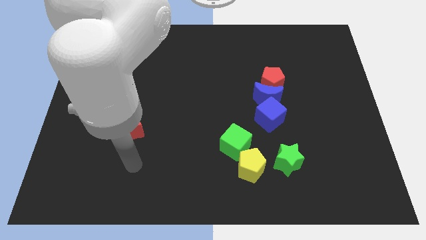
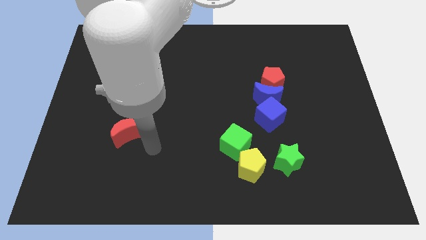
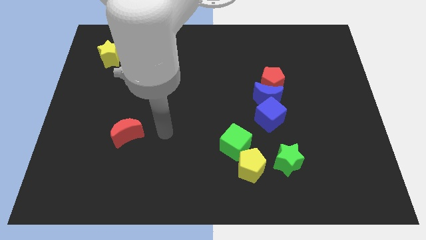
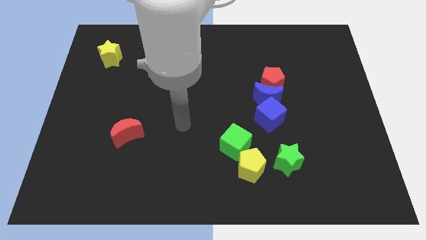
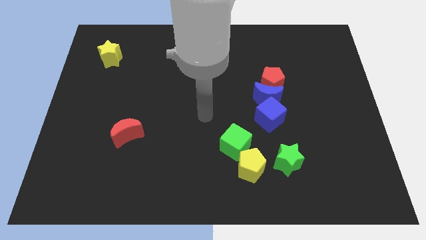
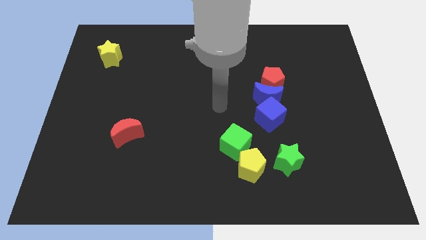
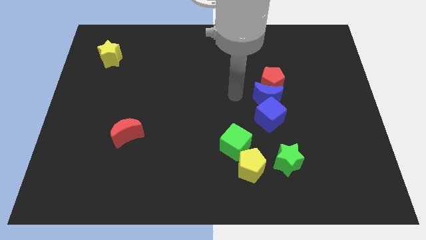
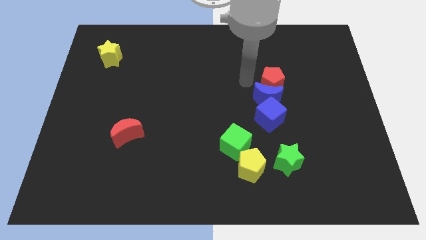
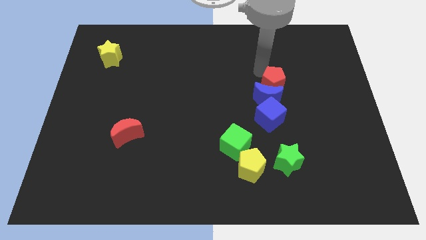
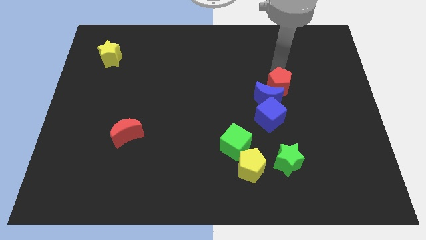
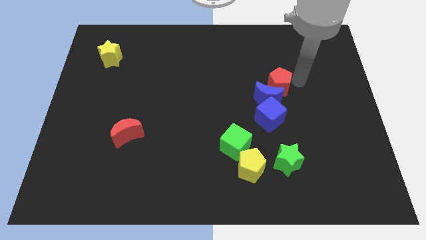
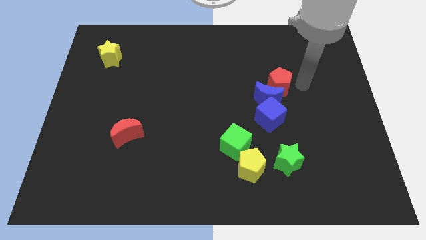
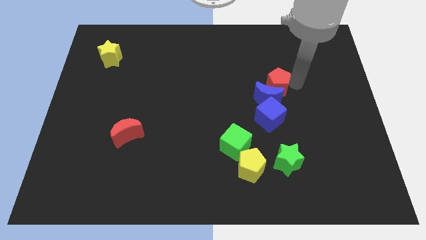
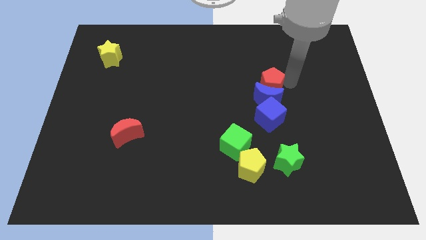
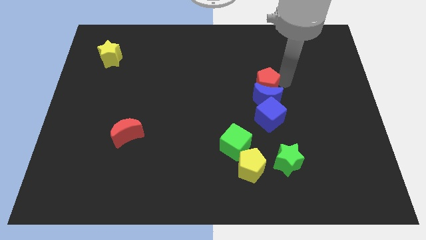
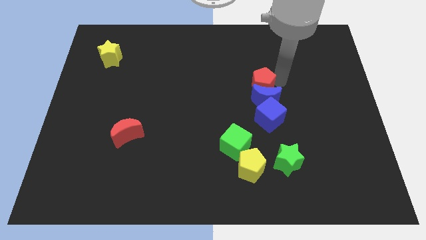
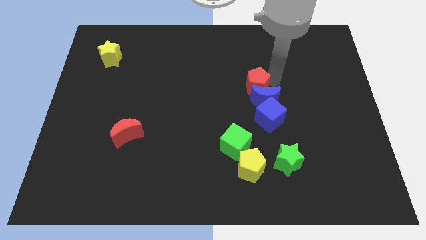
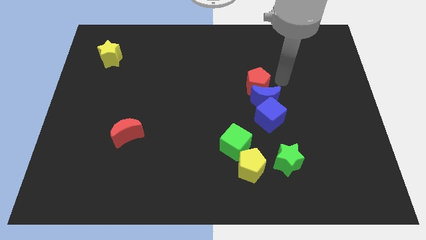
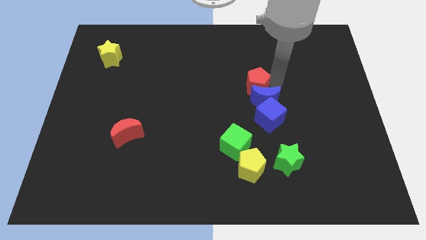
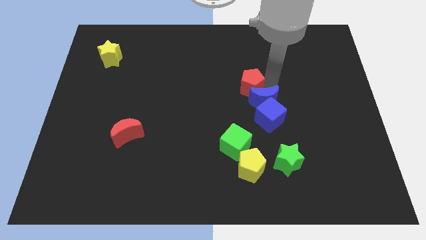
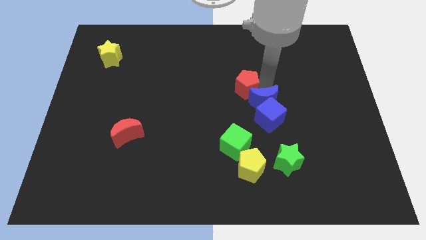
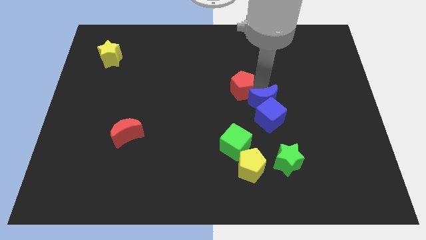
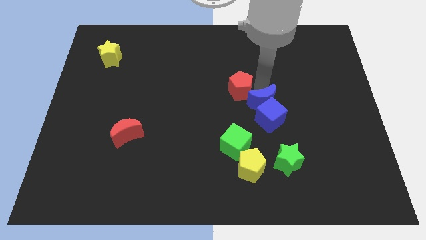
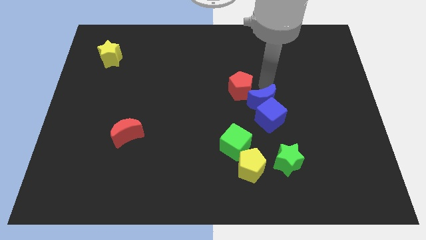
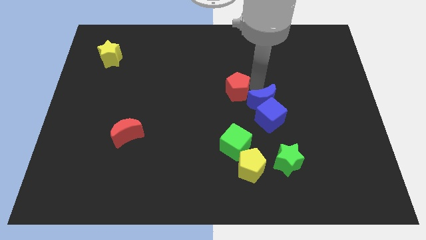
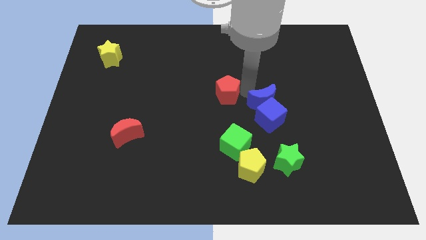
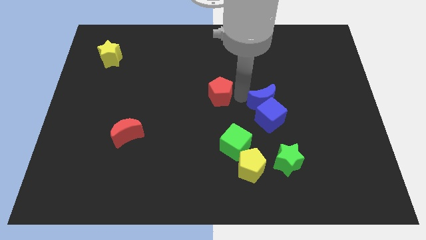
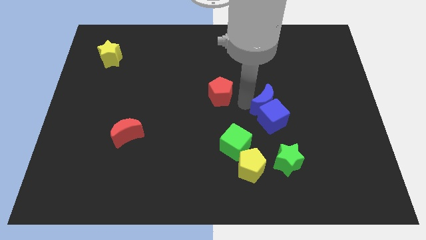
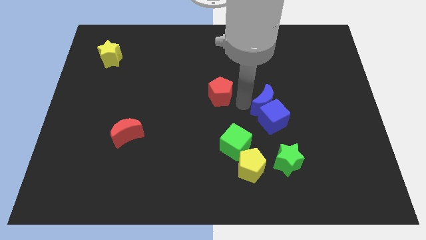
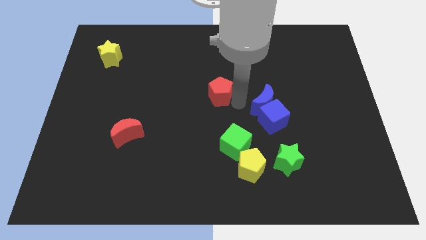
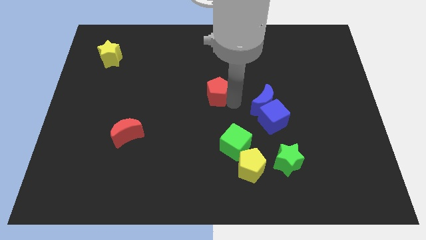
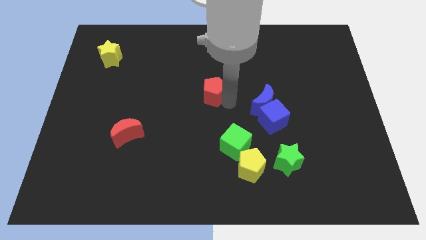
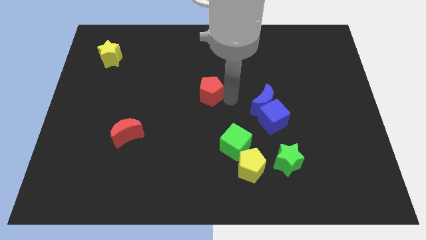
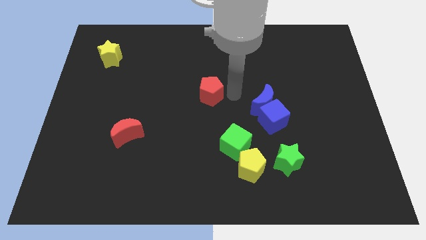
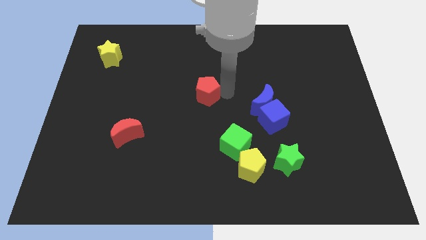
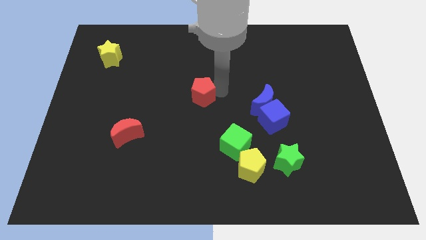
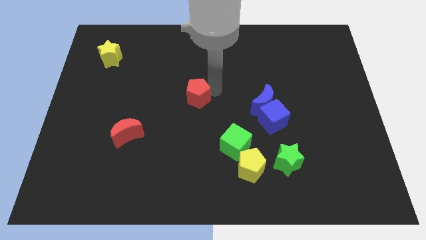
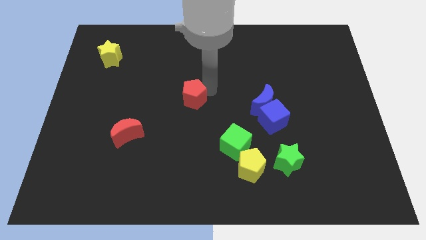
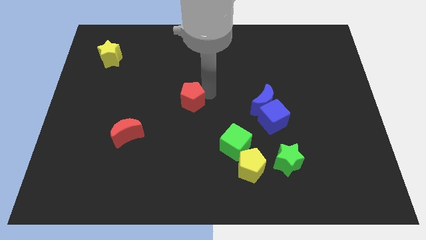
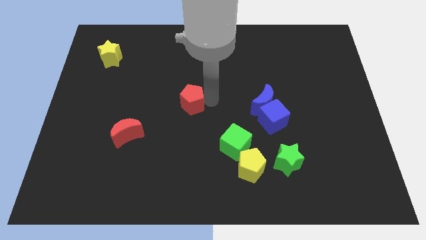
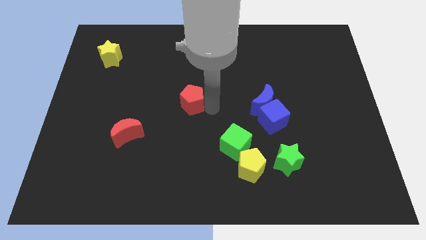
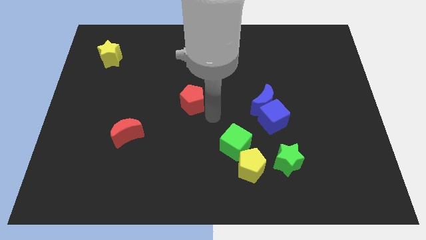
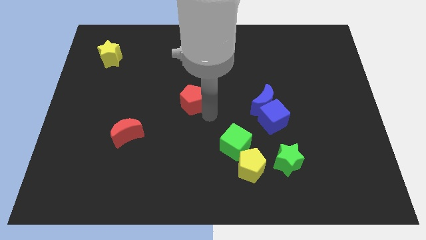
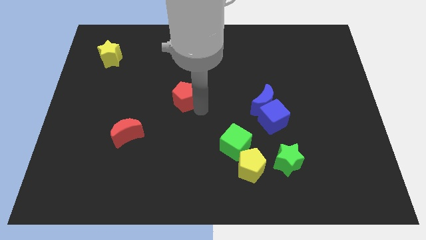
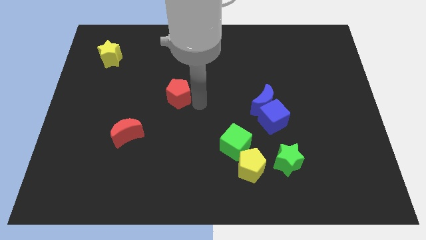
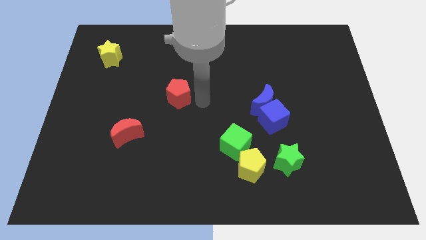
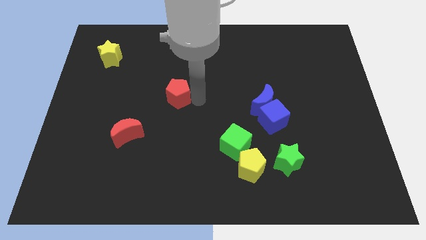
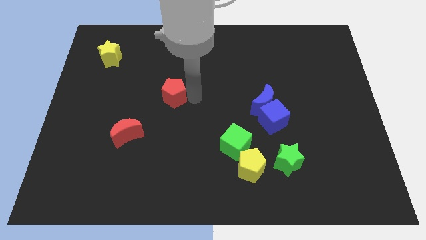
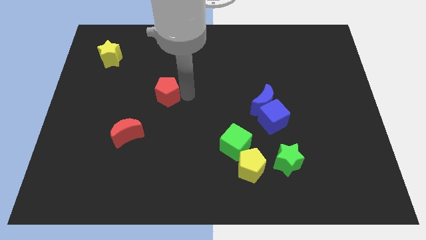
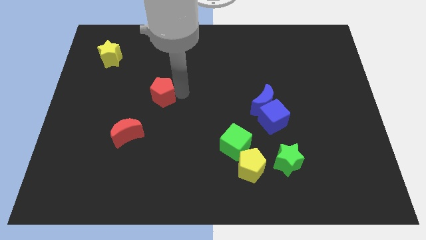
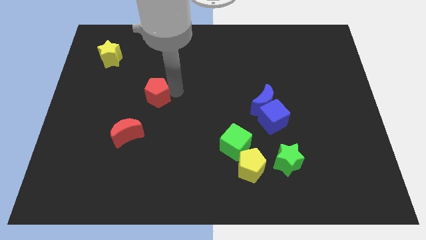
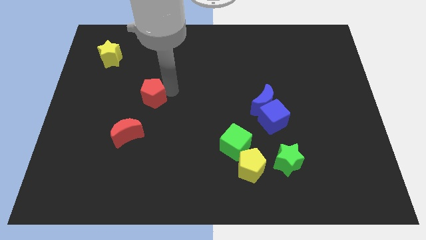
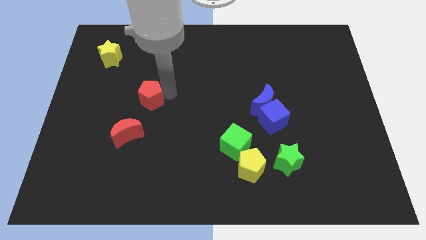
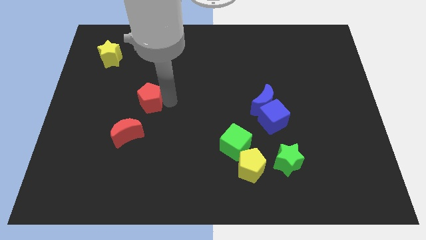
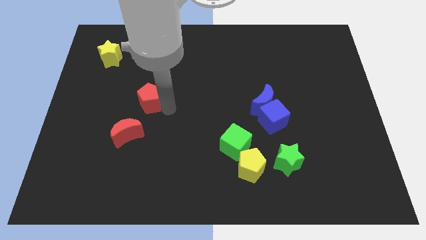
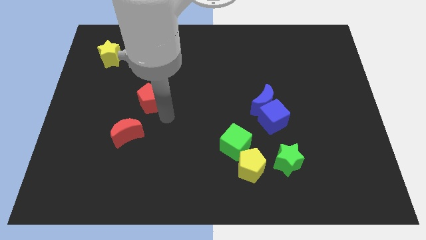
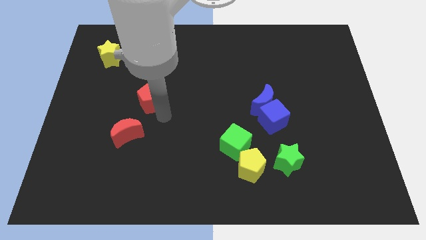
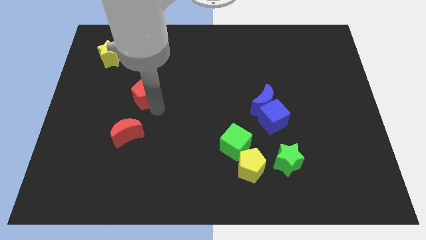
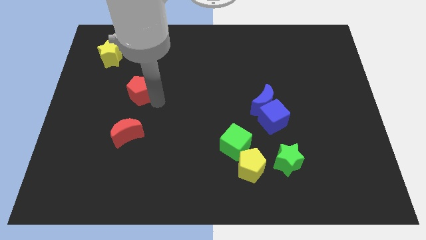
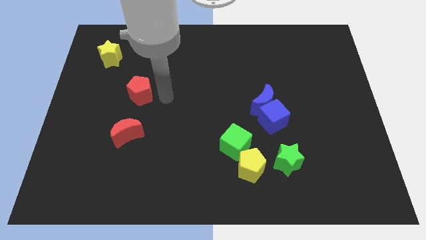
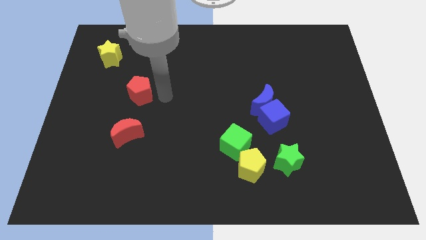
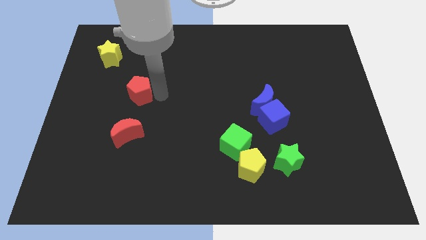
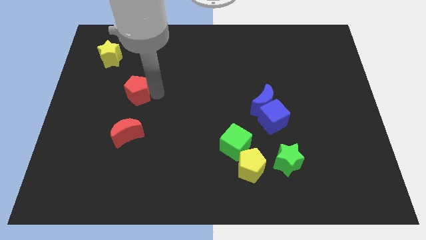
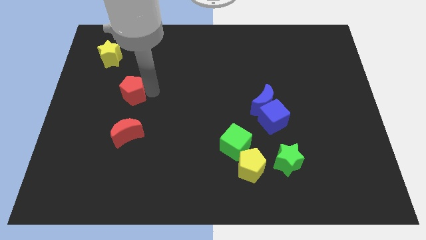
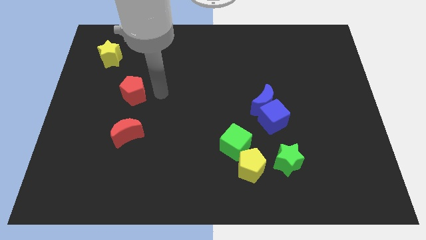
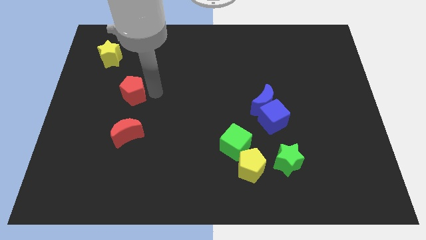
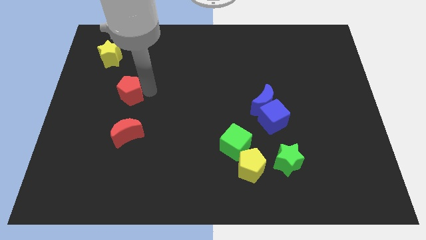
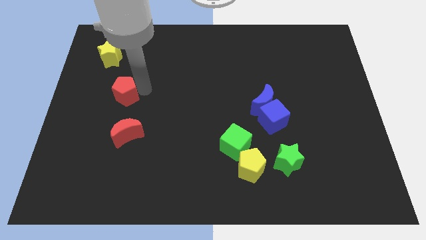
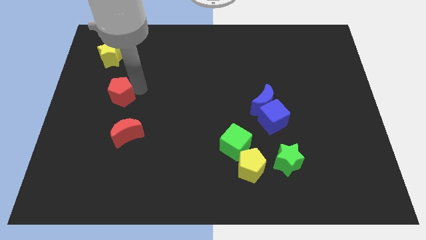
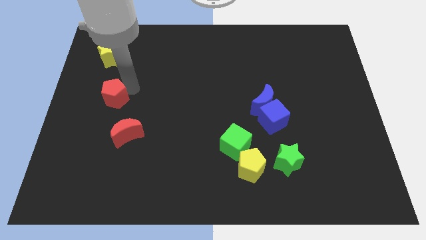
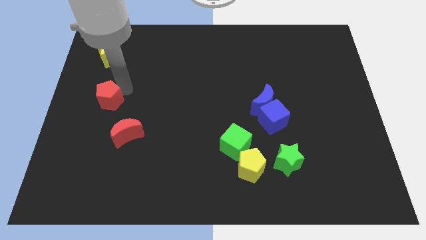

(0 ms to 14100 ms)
move the red pentagon to the left side
